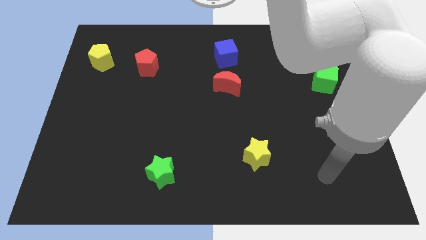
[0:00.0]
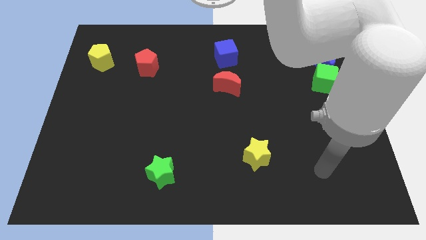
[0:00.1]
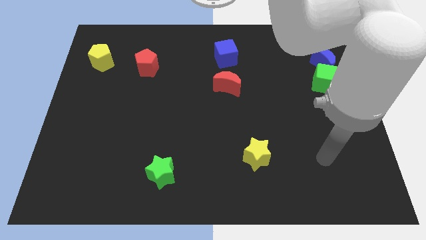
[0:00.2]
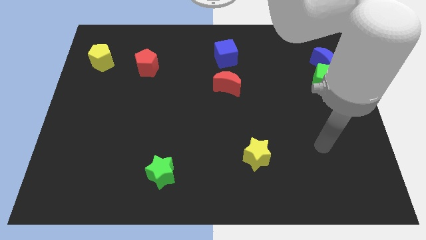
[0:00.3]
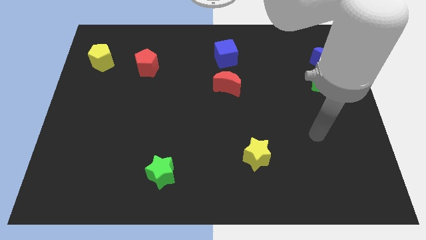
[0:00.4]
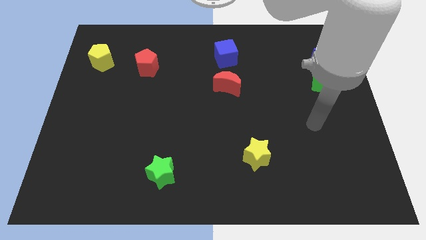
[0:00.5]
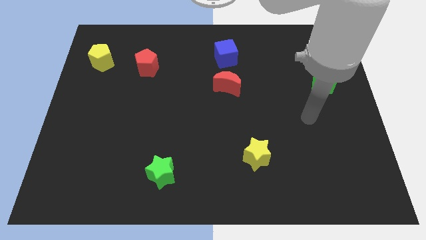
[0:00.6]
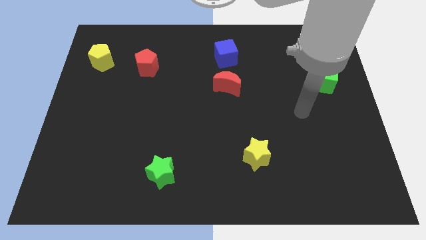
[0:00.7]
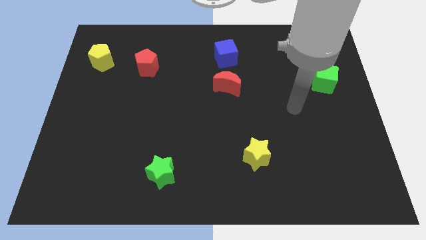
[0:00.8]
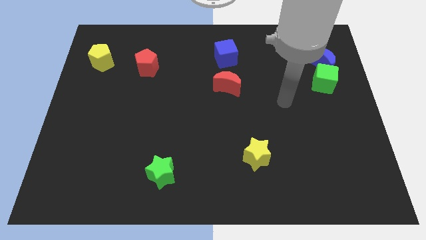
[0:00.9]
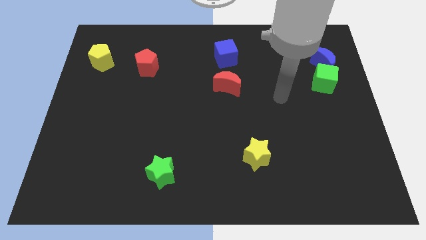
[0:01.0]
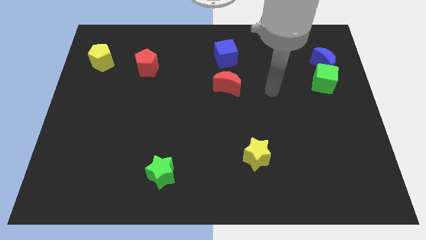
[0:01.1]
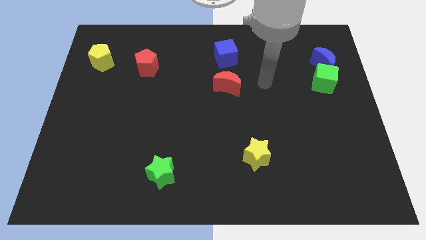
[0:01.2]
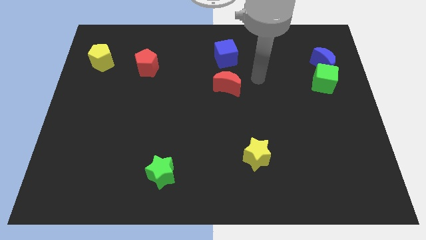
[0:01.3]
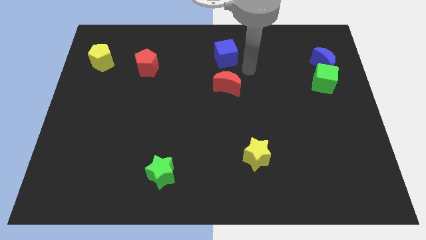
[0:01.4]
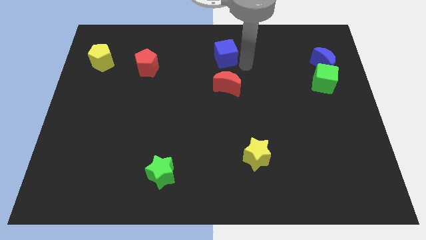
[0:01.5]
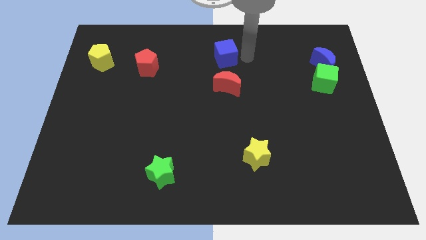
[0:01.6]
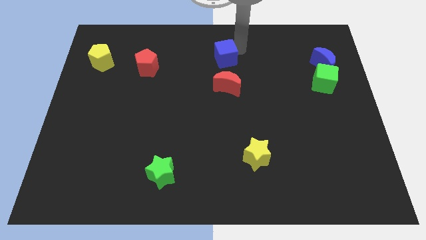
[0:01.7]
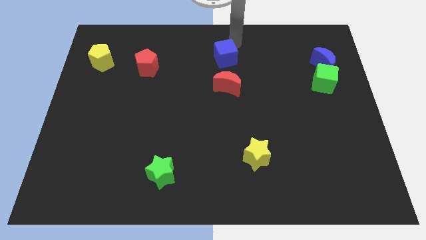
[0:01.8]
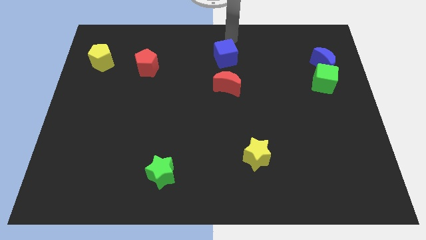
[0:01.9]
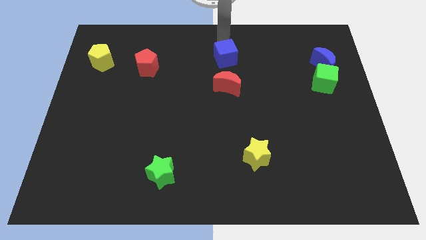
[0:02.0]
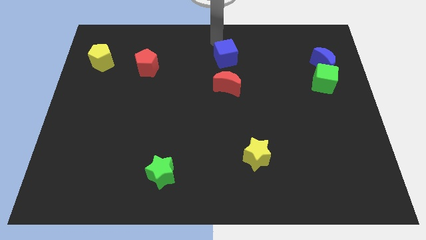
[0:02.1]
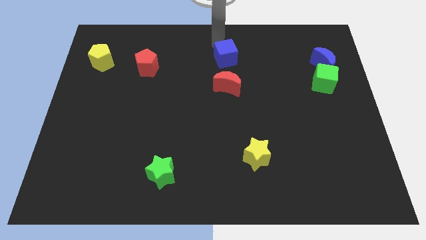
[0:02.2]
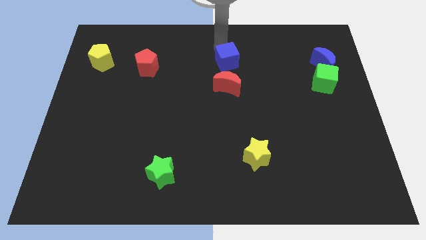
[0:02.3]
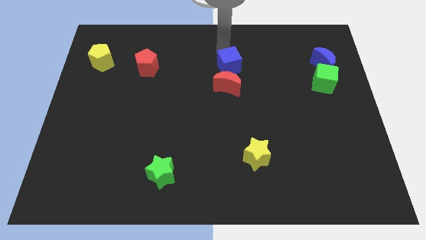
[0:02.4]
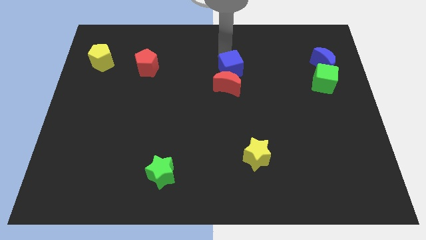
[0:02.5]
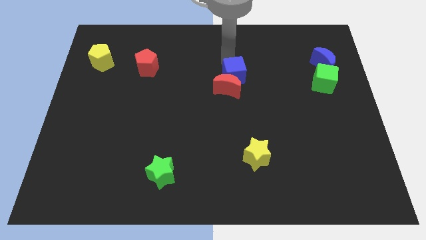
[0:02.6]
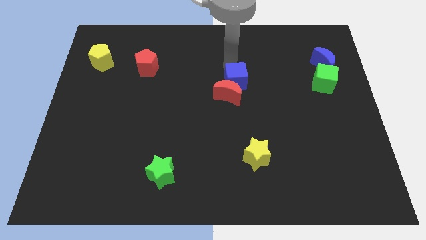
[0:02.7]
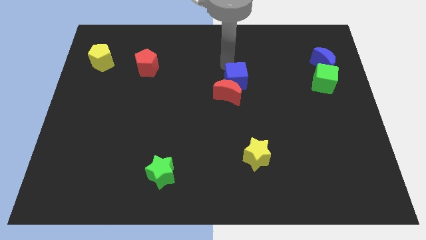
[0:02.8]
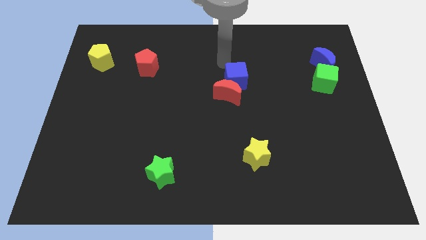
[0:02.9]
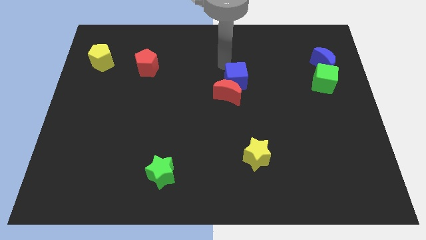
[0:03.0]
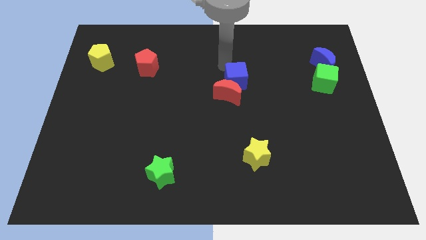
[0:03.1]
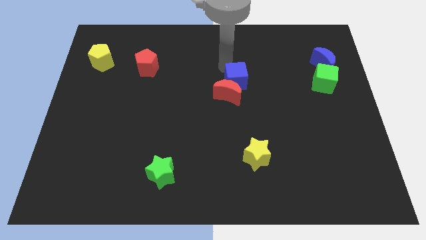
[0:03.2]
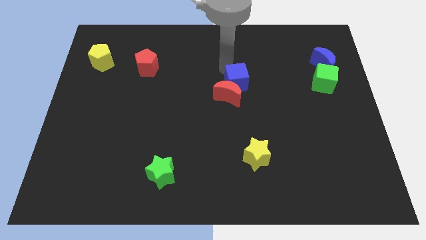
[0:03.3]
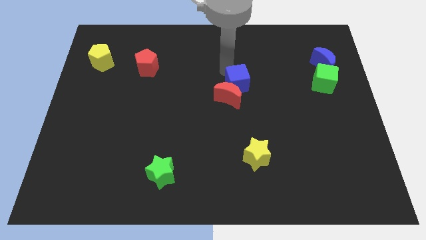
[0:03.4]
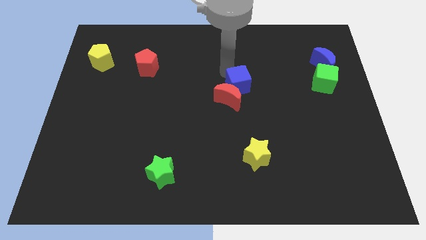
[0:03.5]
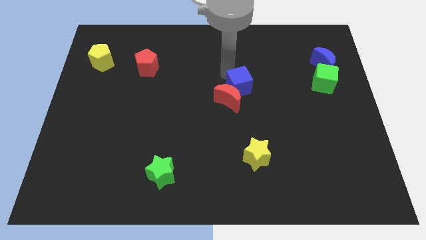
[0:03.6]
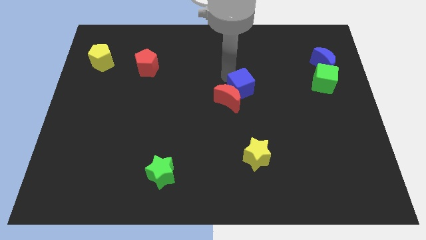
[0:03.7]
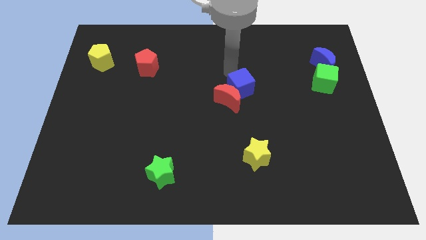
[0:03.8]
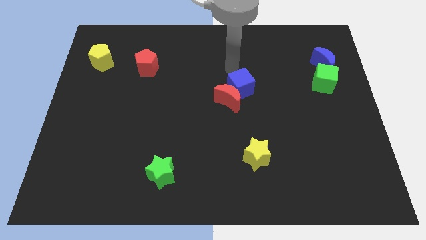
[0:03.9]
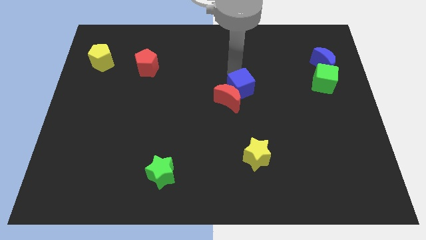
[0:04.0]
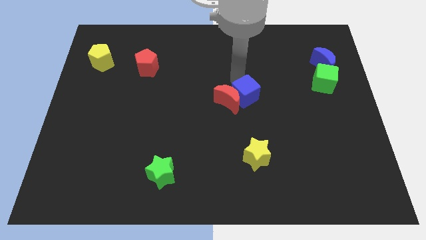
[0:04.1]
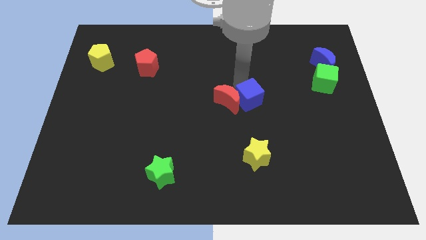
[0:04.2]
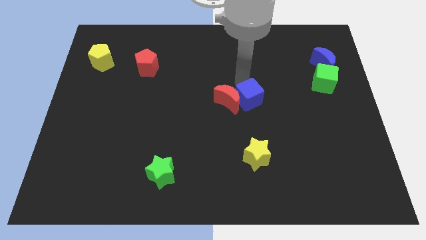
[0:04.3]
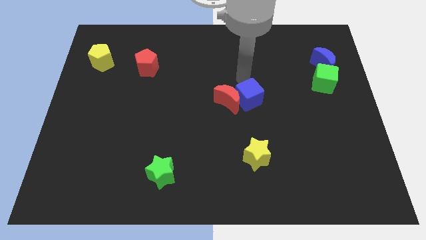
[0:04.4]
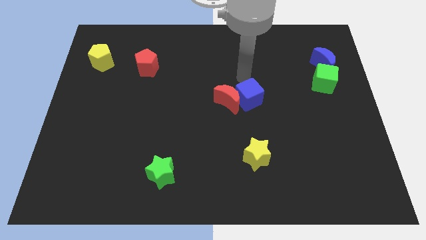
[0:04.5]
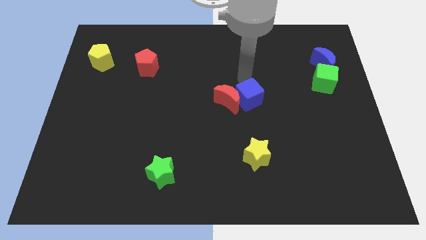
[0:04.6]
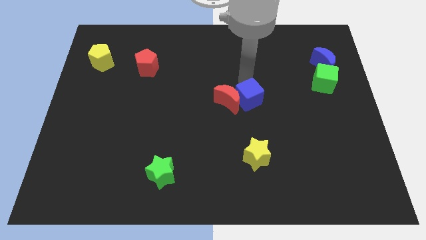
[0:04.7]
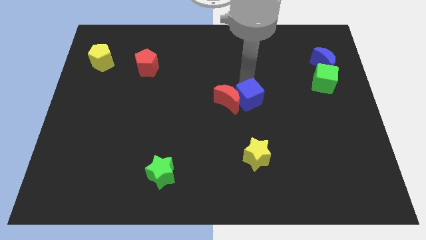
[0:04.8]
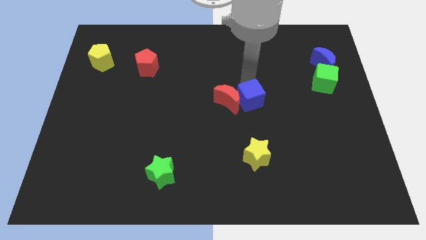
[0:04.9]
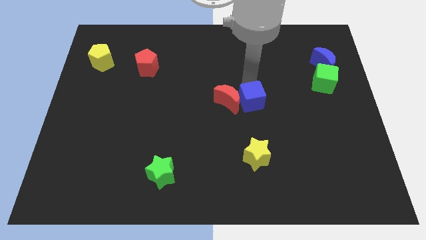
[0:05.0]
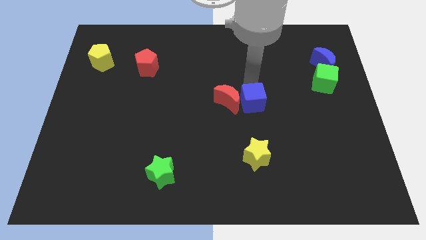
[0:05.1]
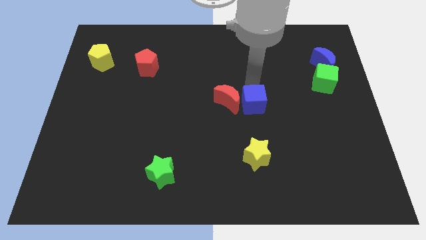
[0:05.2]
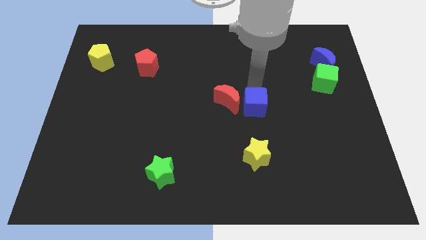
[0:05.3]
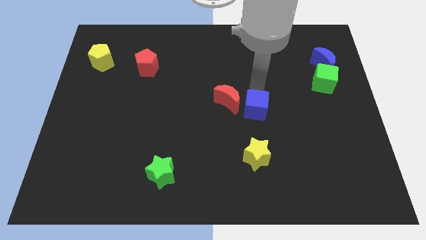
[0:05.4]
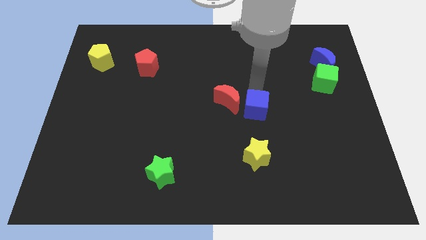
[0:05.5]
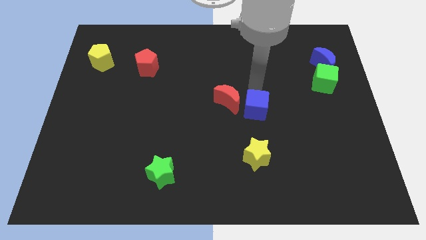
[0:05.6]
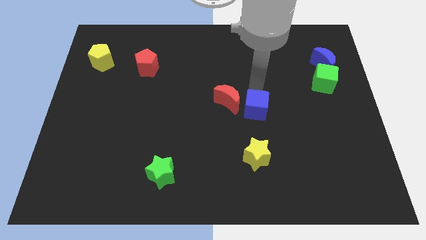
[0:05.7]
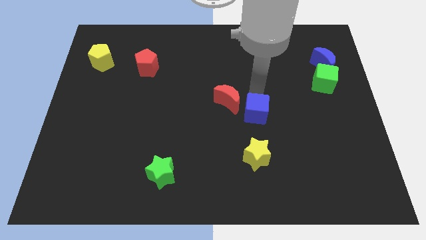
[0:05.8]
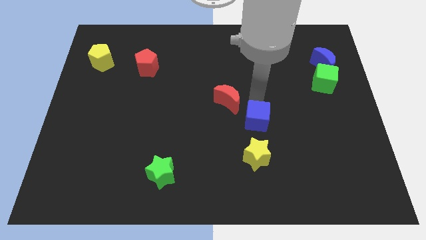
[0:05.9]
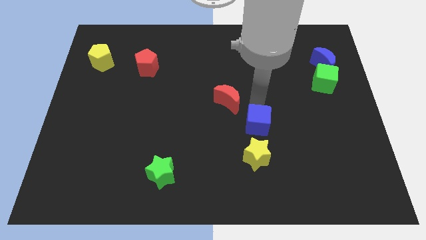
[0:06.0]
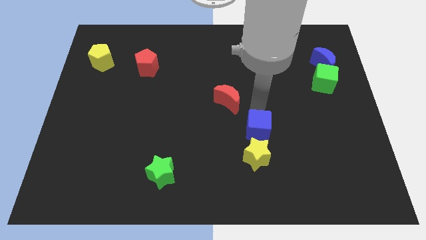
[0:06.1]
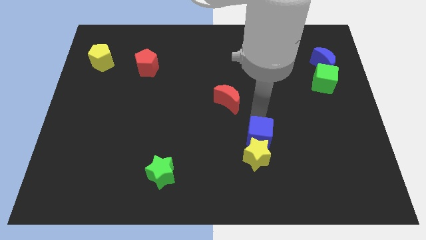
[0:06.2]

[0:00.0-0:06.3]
slide the blue cube close to the yellow star

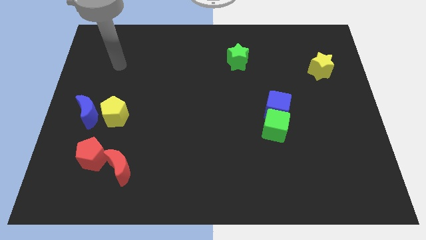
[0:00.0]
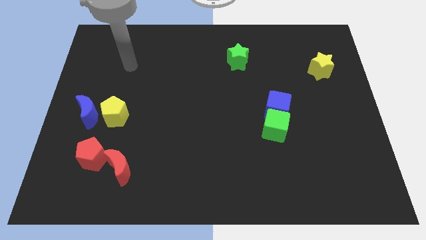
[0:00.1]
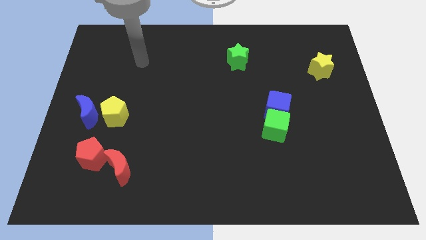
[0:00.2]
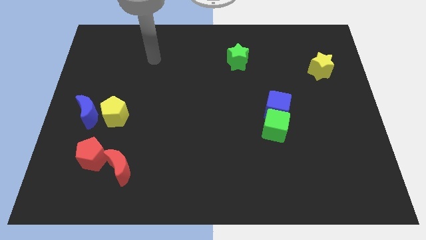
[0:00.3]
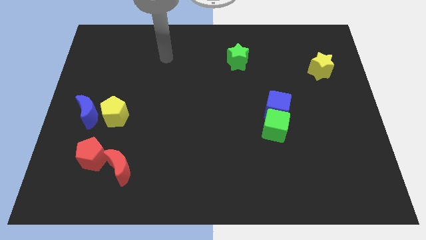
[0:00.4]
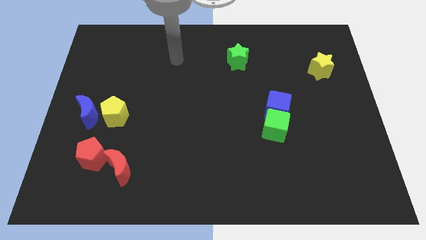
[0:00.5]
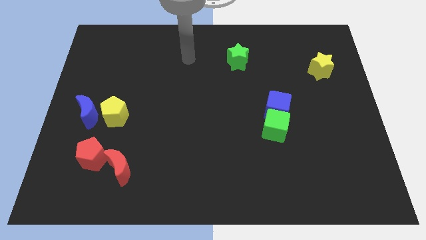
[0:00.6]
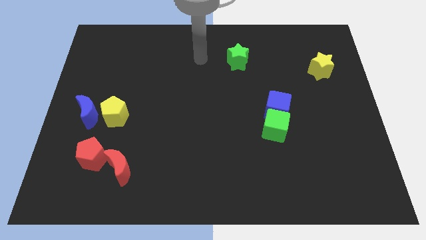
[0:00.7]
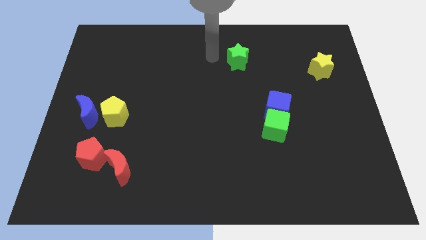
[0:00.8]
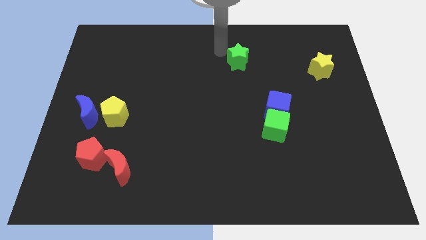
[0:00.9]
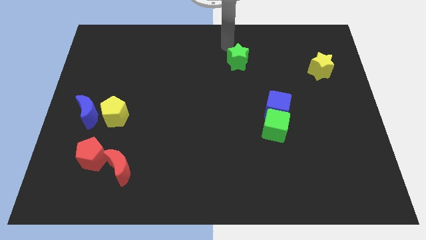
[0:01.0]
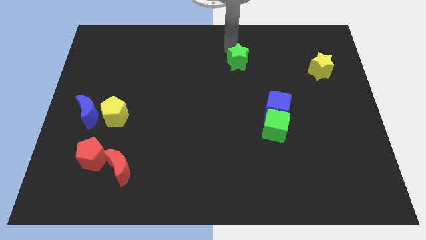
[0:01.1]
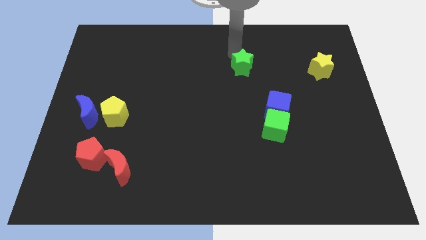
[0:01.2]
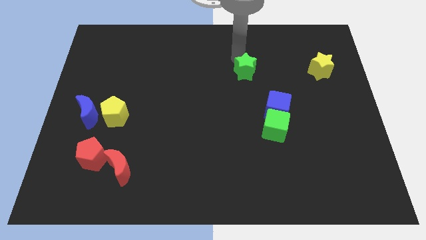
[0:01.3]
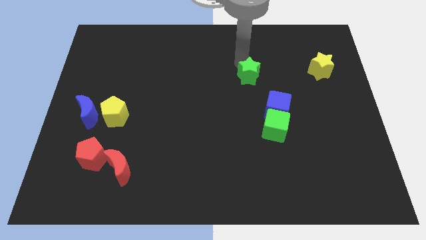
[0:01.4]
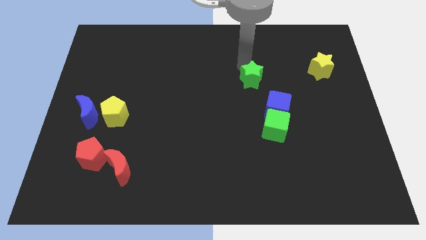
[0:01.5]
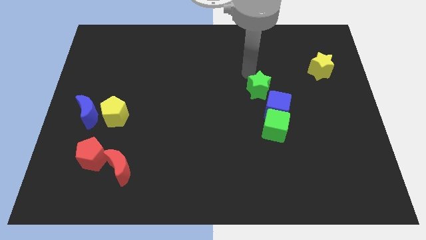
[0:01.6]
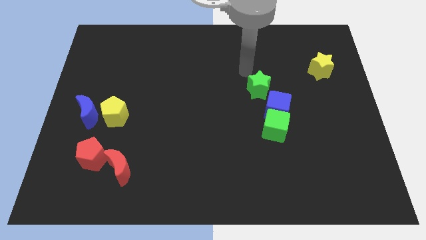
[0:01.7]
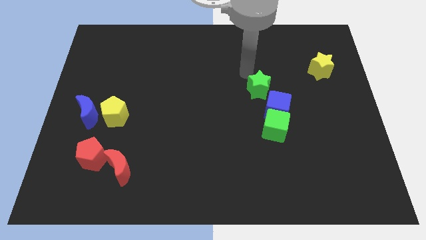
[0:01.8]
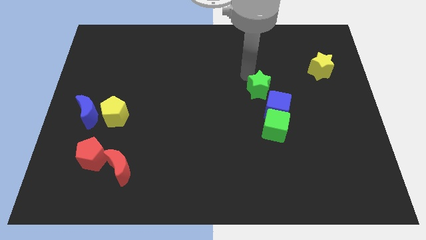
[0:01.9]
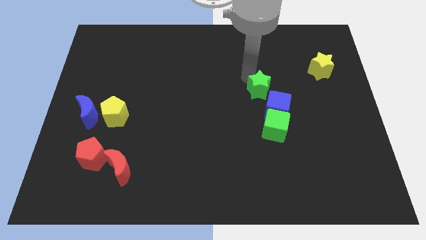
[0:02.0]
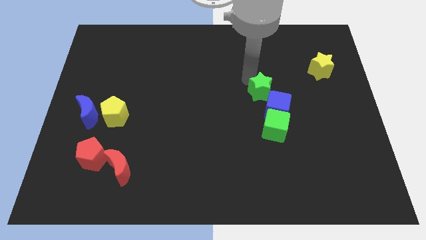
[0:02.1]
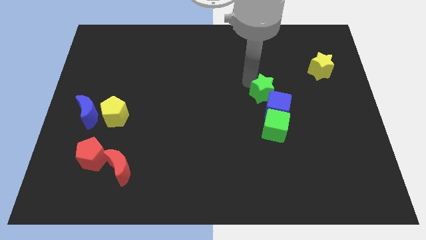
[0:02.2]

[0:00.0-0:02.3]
move the green star towards the blue cube
